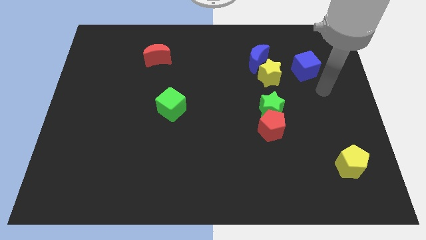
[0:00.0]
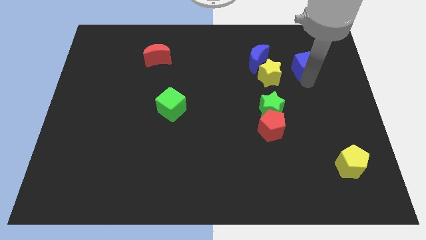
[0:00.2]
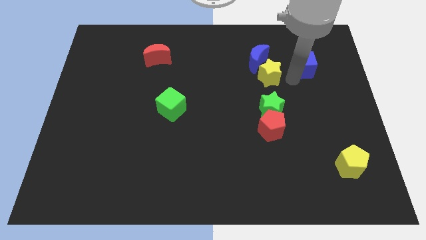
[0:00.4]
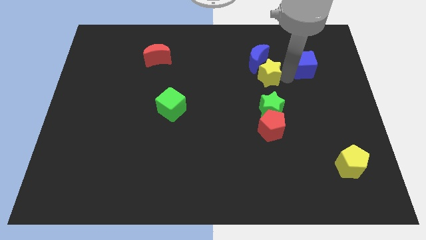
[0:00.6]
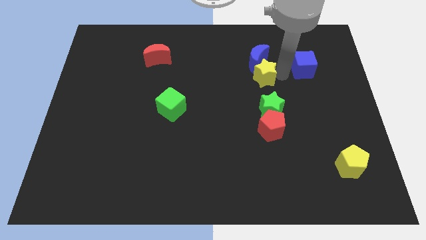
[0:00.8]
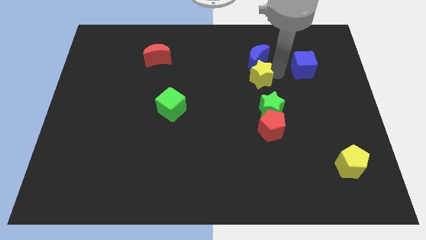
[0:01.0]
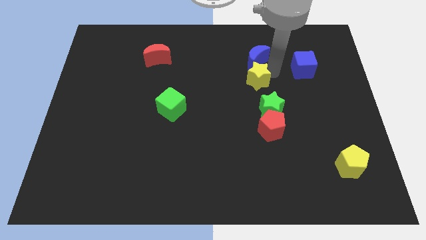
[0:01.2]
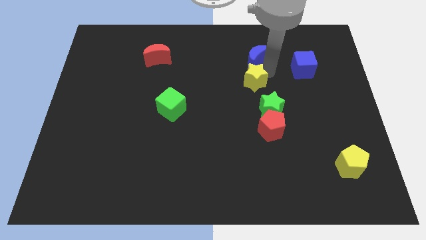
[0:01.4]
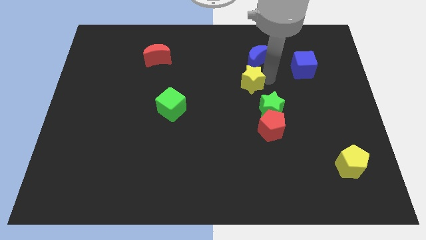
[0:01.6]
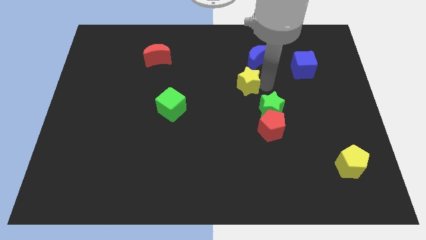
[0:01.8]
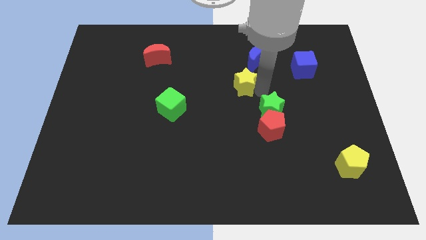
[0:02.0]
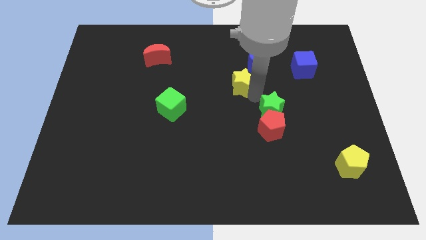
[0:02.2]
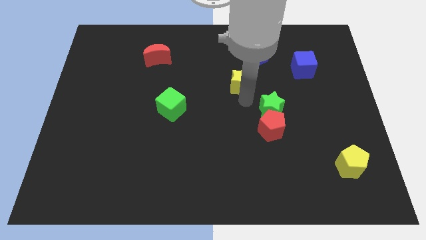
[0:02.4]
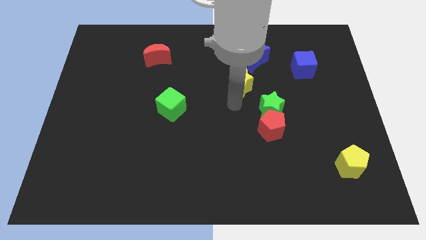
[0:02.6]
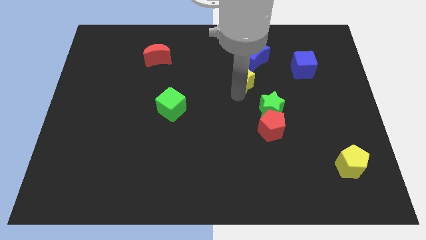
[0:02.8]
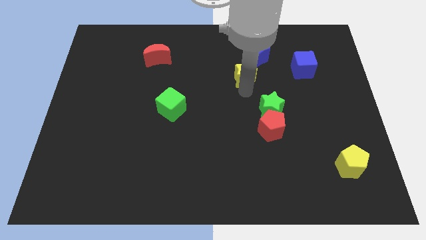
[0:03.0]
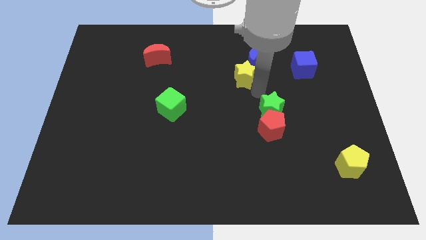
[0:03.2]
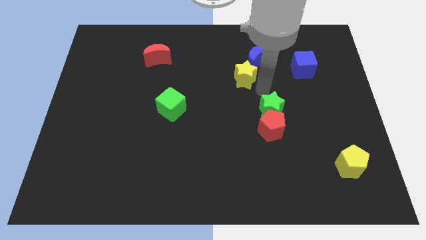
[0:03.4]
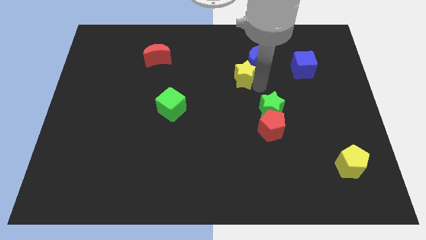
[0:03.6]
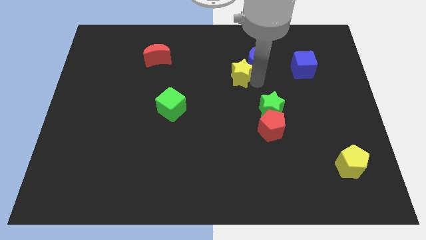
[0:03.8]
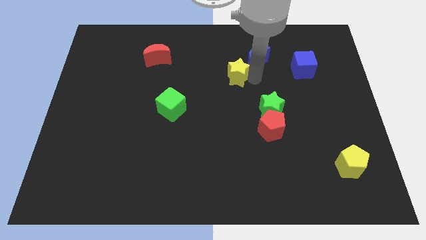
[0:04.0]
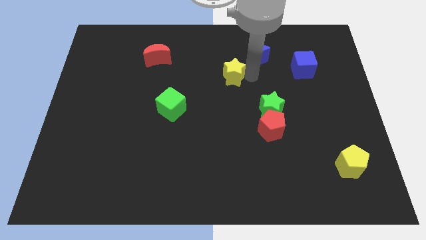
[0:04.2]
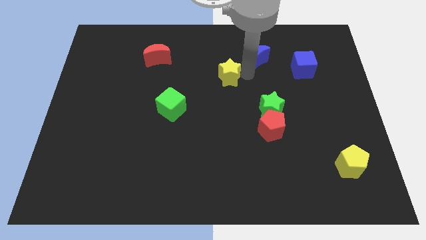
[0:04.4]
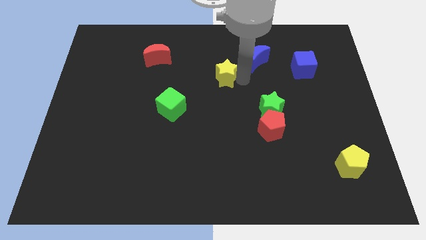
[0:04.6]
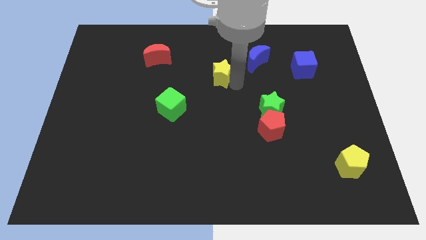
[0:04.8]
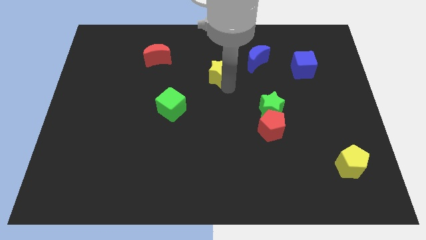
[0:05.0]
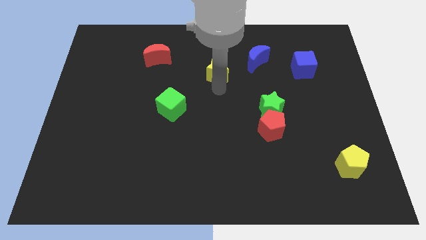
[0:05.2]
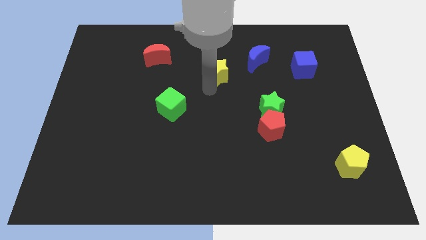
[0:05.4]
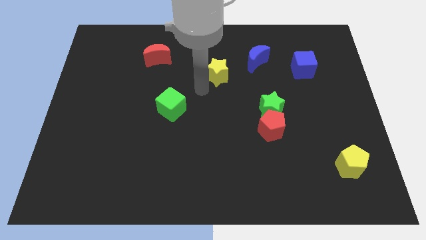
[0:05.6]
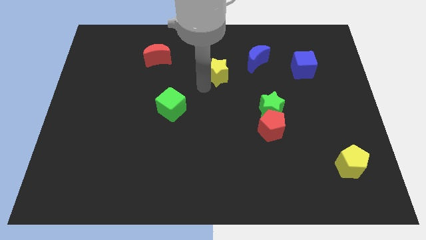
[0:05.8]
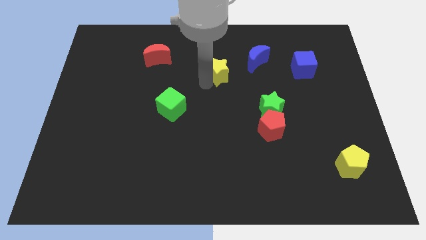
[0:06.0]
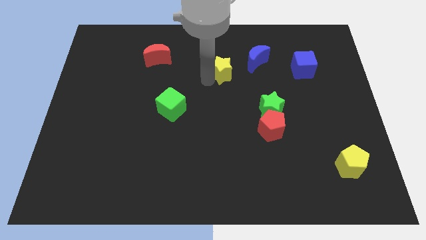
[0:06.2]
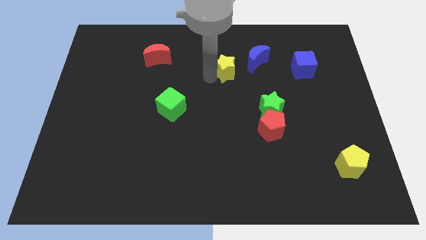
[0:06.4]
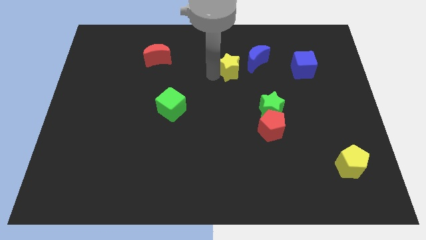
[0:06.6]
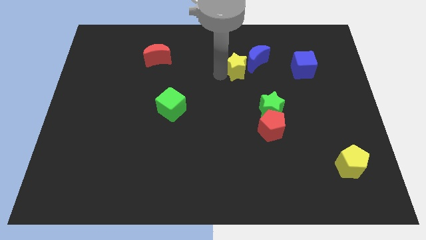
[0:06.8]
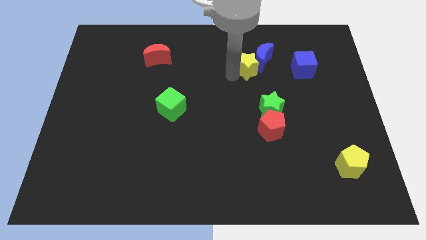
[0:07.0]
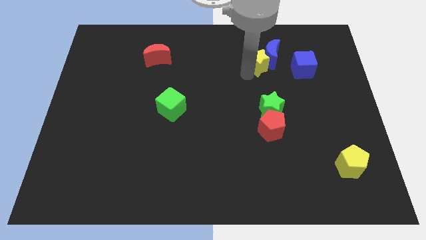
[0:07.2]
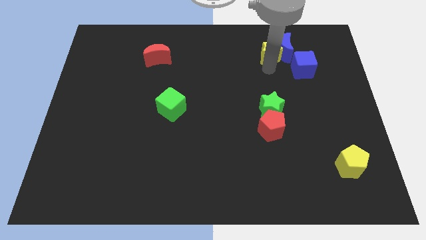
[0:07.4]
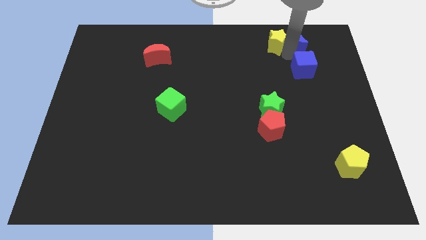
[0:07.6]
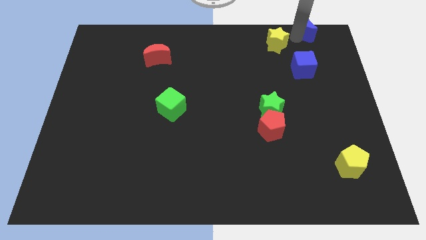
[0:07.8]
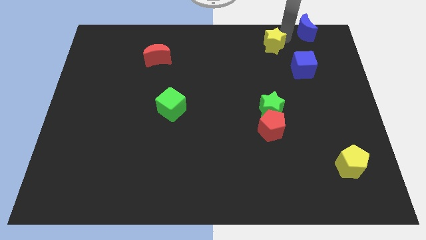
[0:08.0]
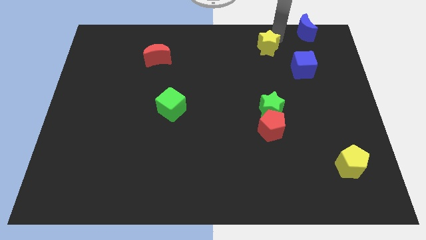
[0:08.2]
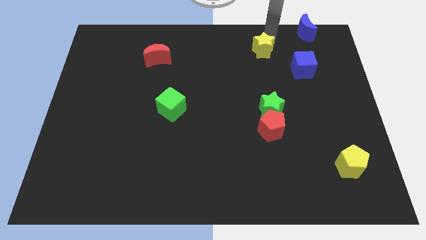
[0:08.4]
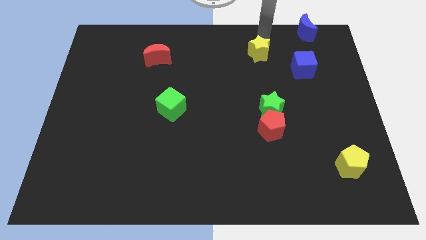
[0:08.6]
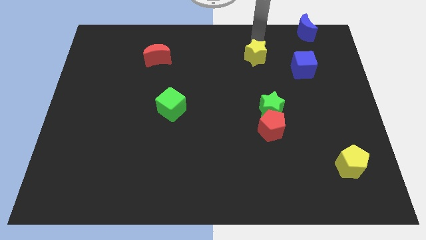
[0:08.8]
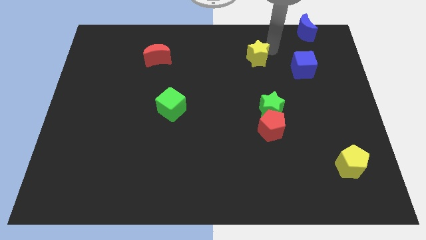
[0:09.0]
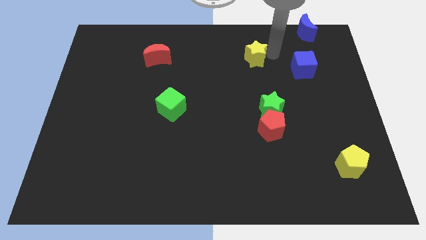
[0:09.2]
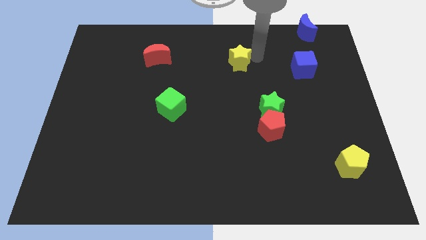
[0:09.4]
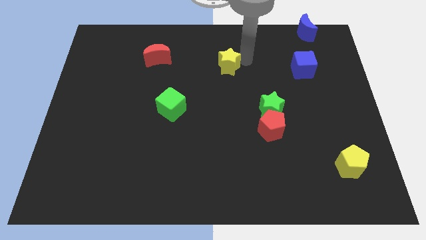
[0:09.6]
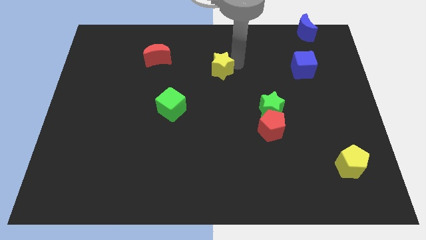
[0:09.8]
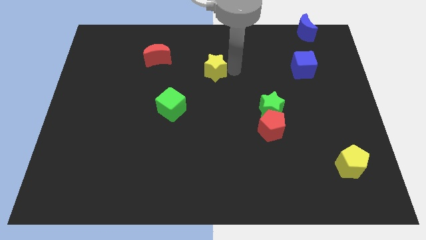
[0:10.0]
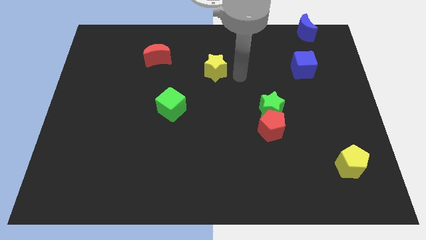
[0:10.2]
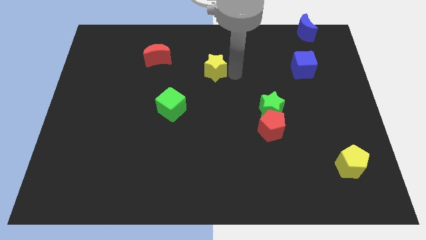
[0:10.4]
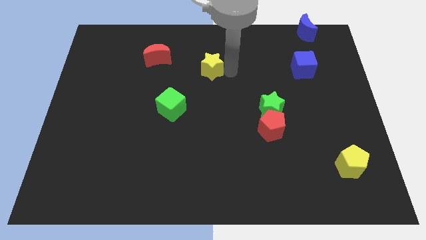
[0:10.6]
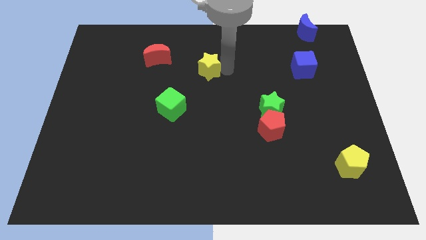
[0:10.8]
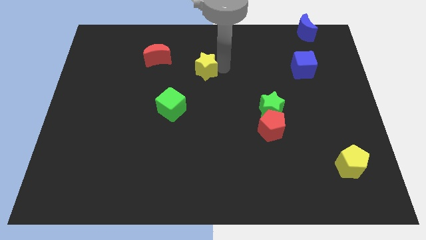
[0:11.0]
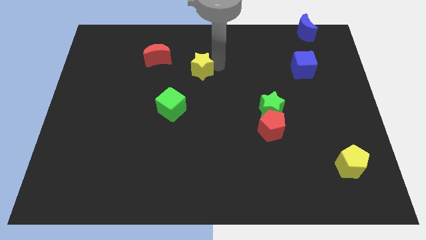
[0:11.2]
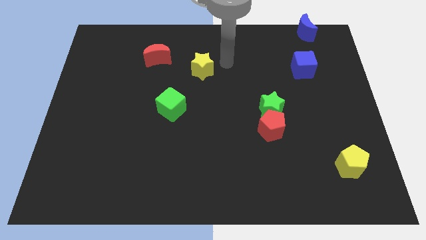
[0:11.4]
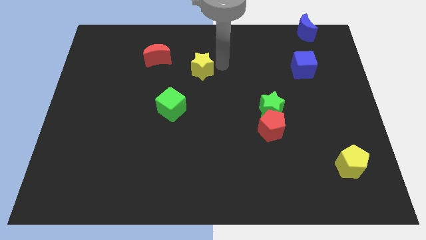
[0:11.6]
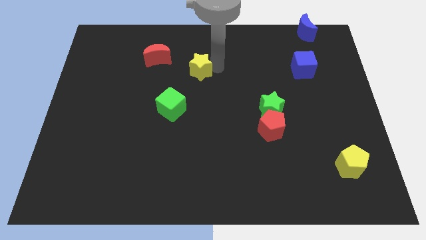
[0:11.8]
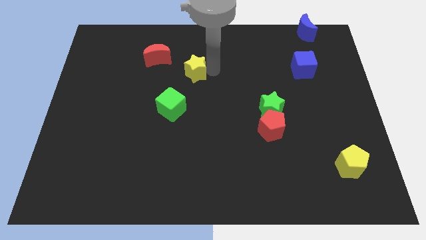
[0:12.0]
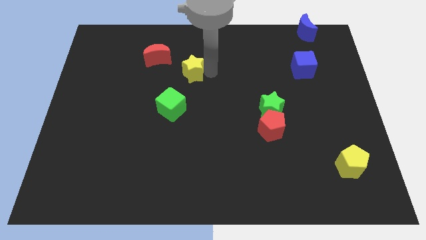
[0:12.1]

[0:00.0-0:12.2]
put the yellow star above the green cube

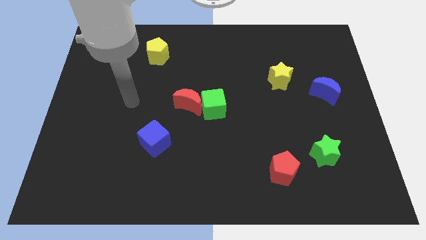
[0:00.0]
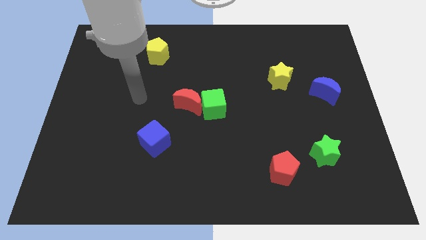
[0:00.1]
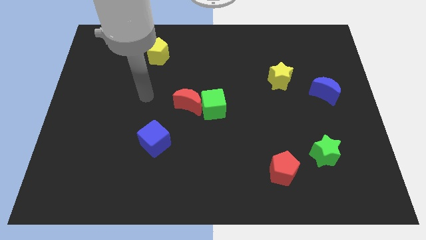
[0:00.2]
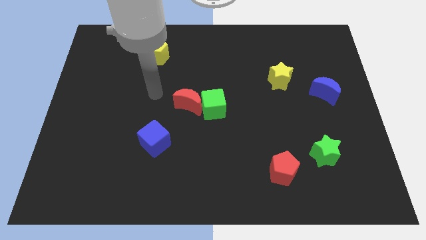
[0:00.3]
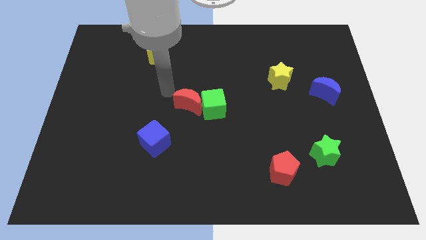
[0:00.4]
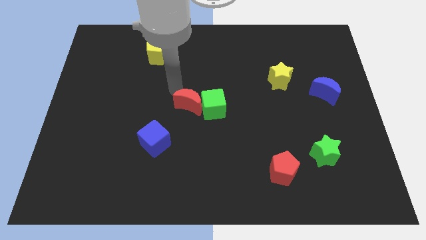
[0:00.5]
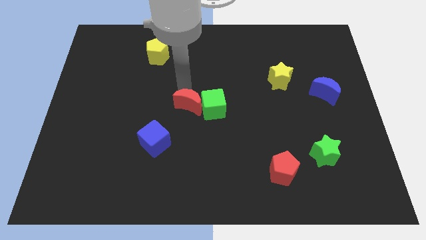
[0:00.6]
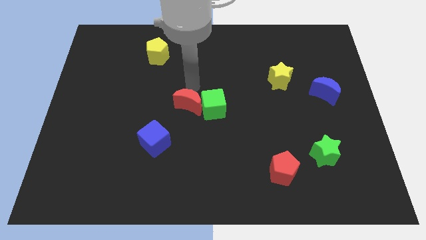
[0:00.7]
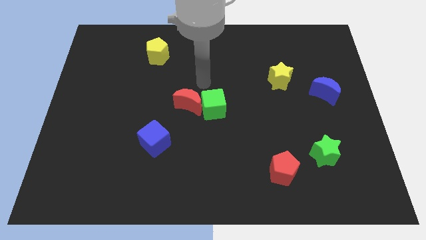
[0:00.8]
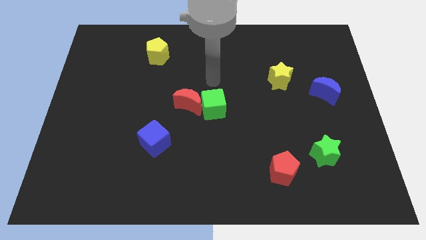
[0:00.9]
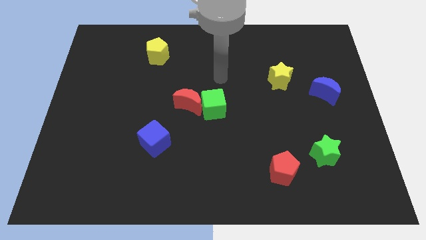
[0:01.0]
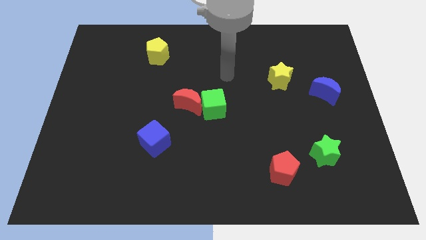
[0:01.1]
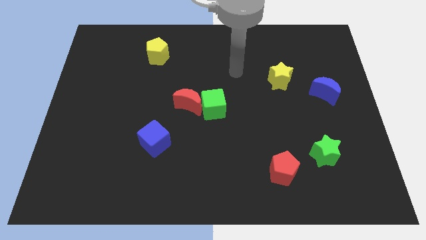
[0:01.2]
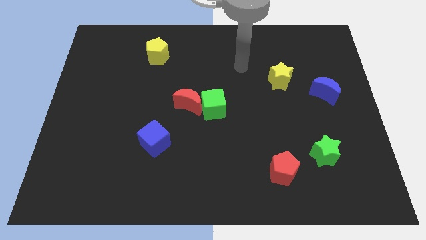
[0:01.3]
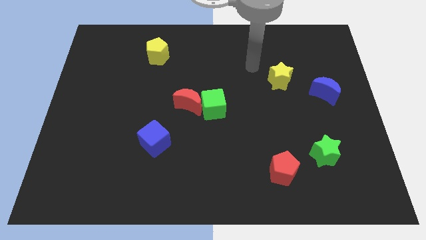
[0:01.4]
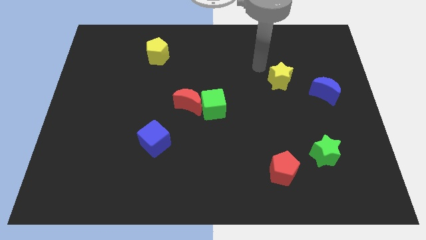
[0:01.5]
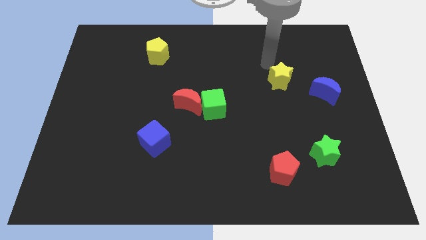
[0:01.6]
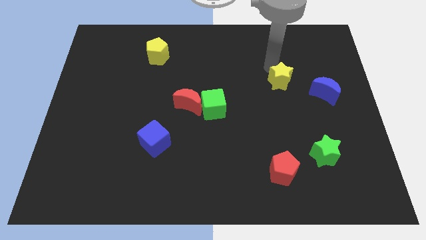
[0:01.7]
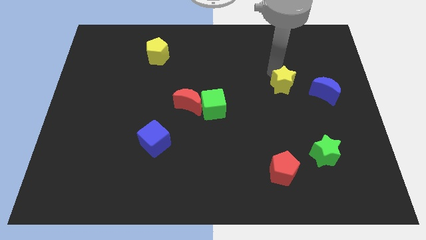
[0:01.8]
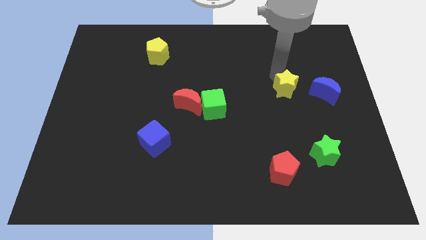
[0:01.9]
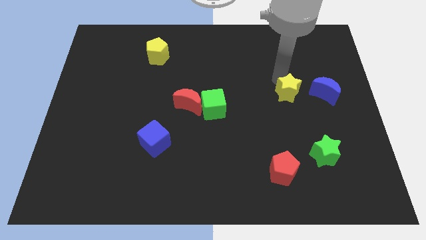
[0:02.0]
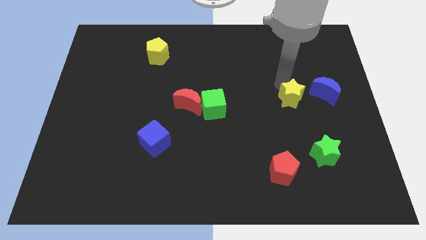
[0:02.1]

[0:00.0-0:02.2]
move the yellow star to the bottom left of the blue moon
